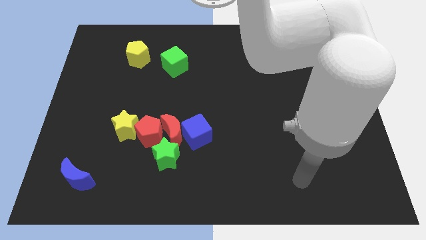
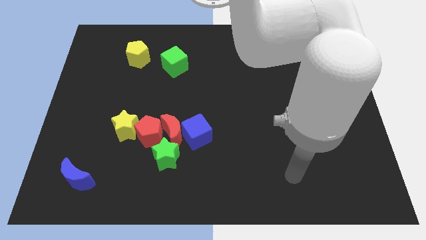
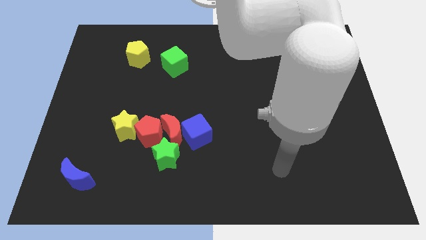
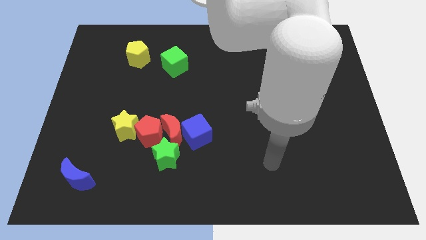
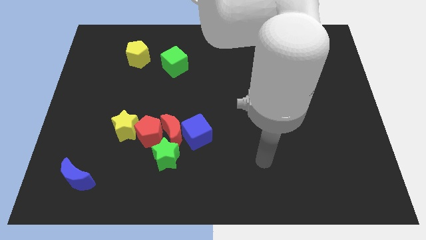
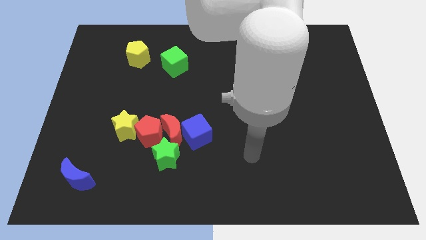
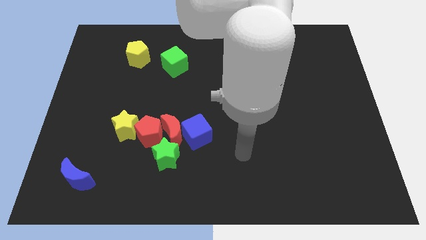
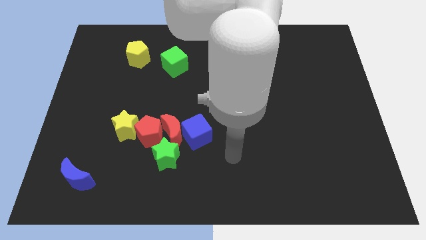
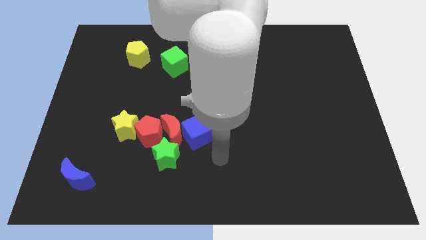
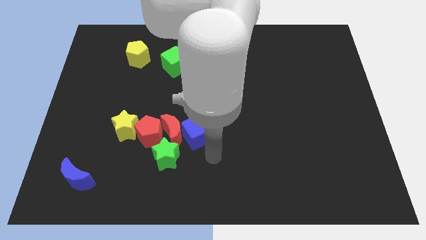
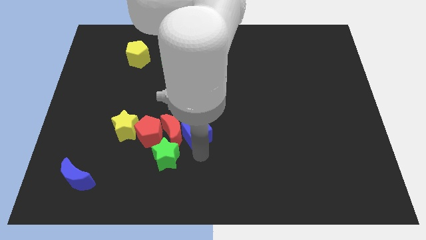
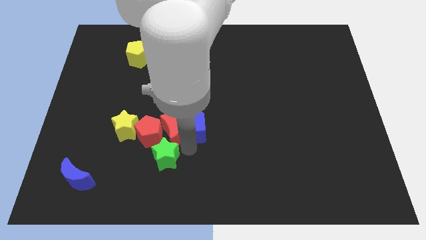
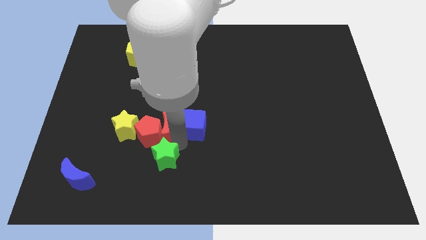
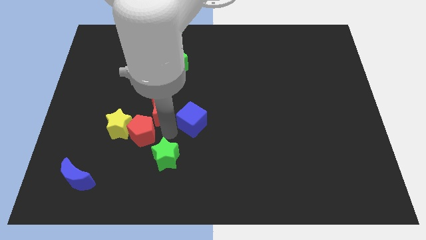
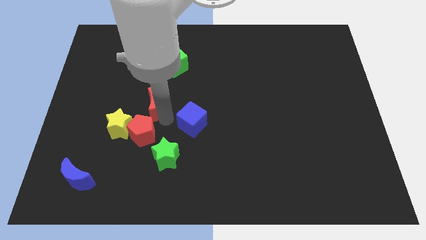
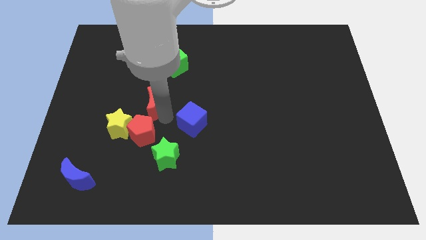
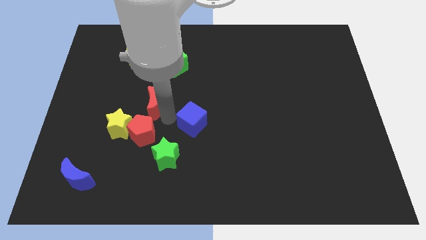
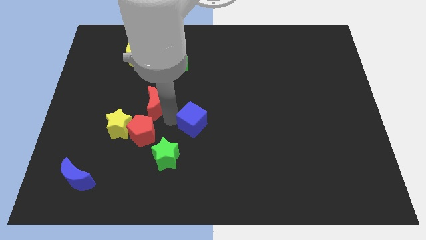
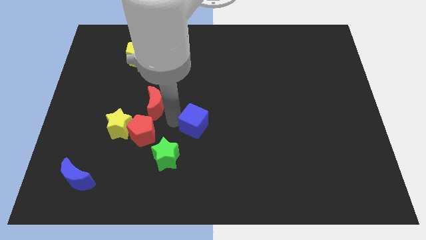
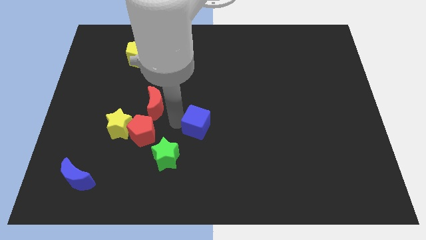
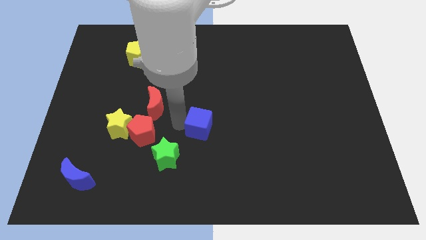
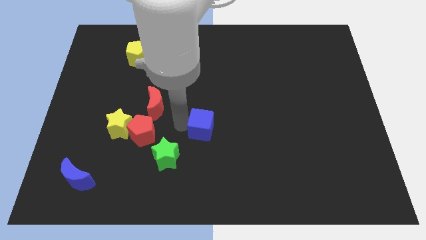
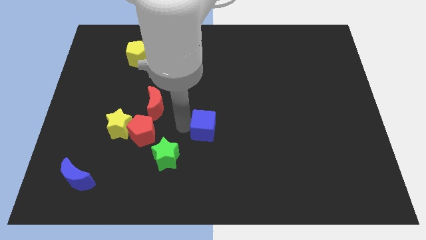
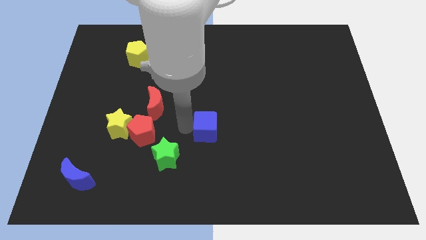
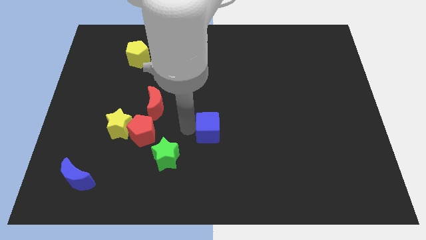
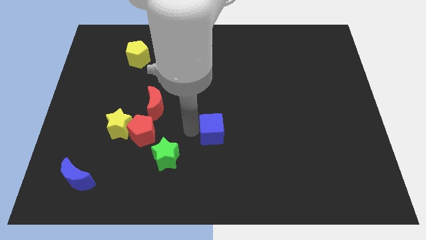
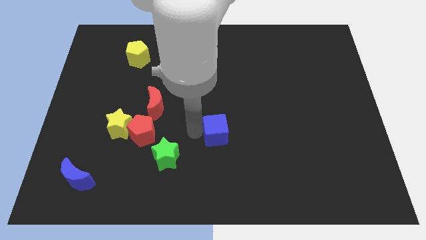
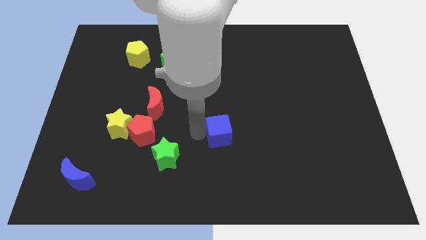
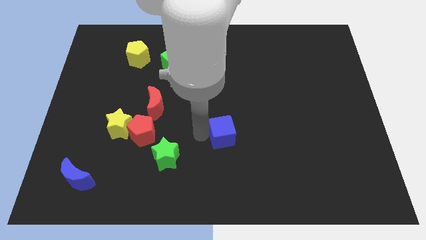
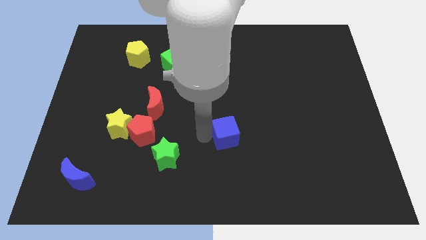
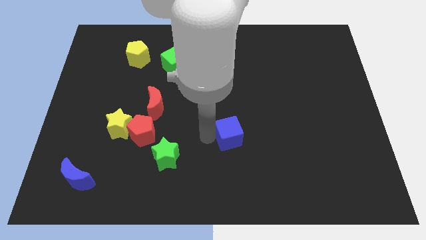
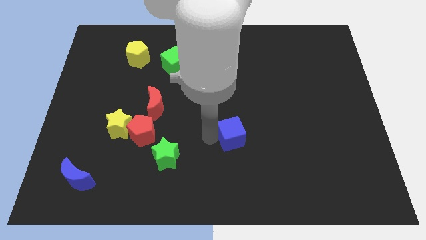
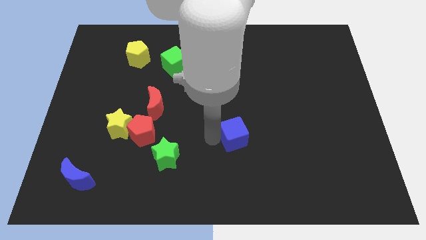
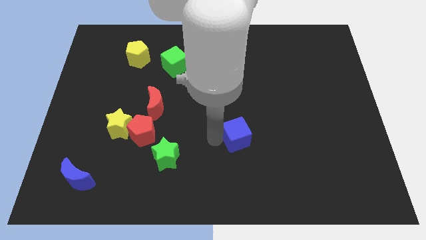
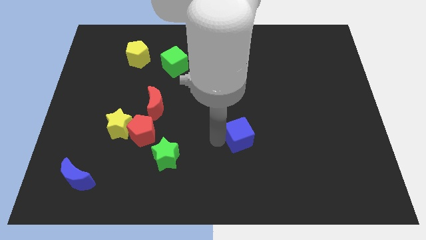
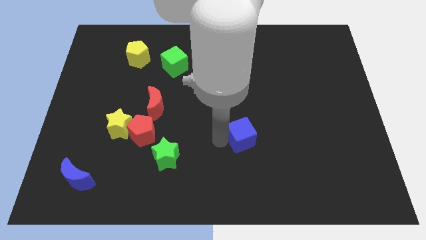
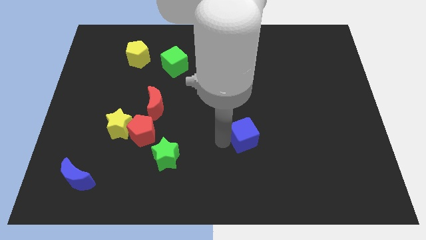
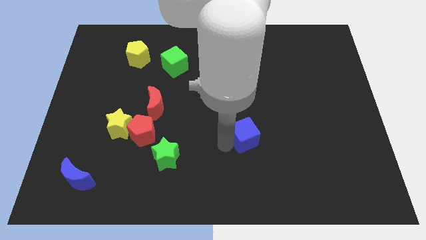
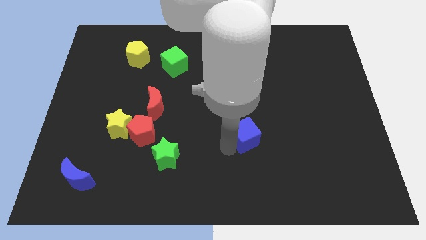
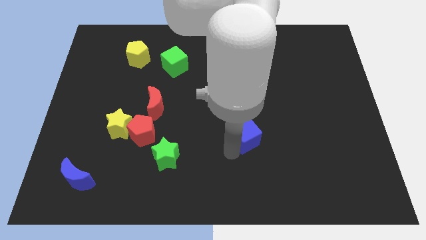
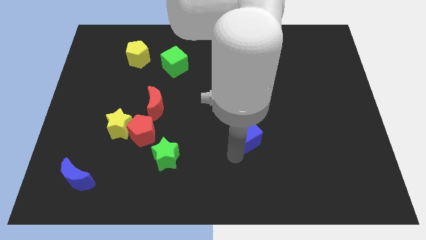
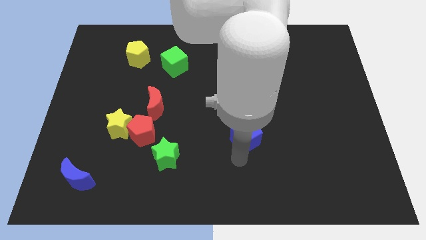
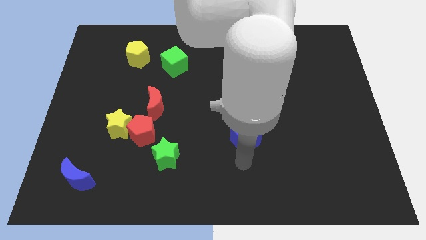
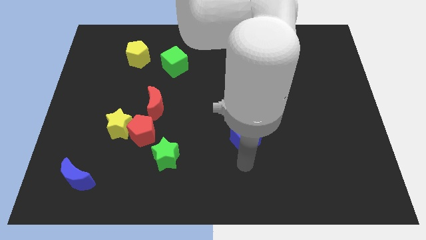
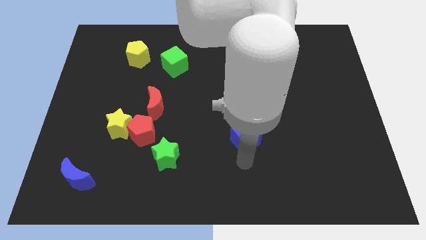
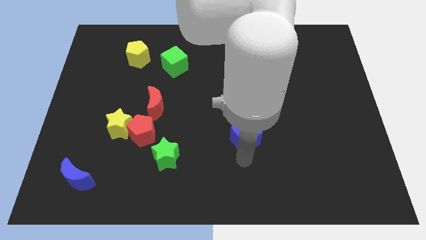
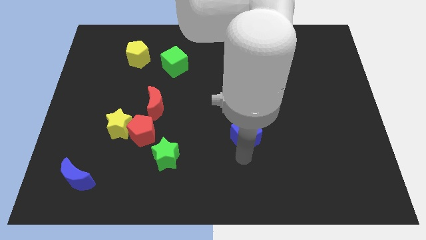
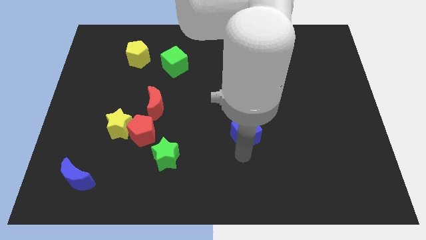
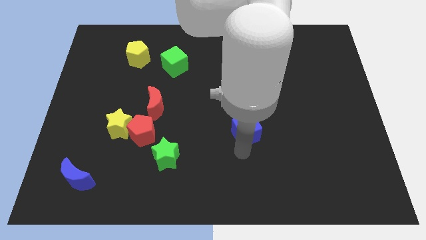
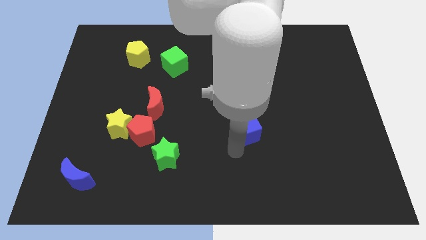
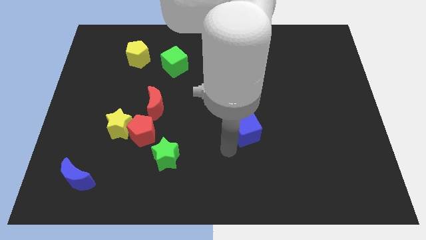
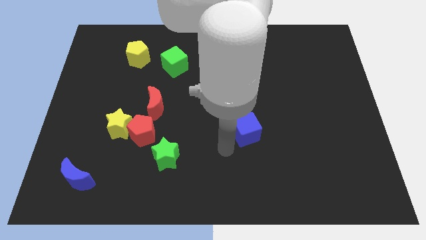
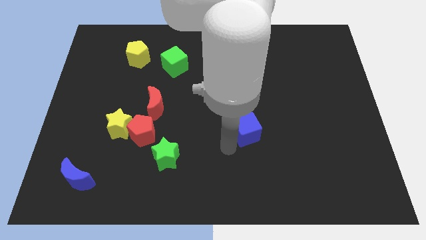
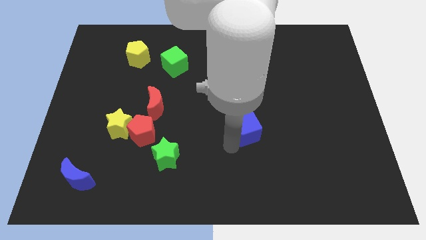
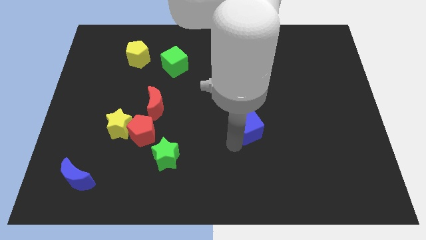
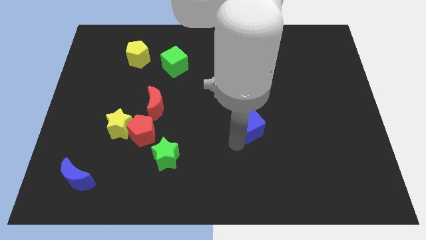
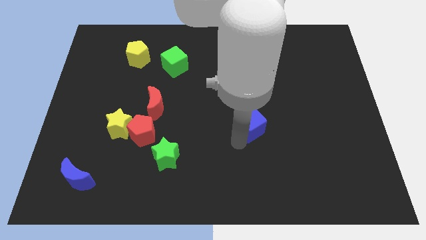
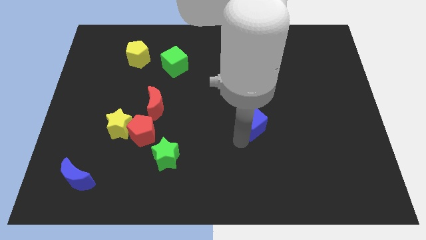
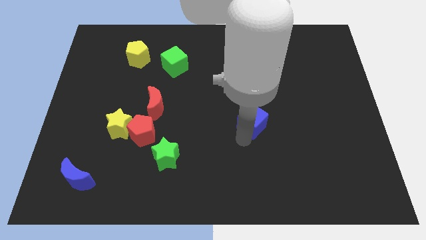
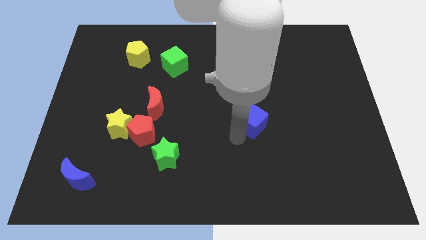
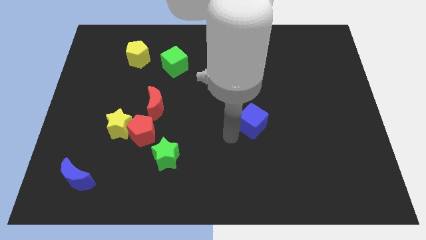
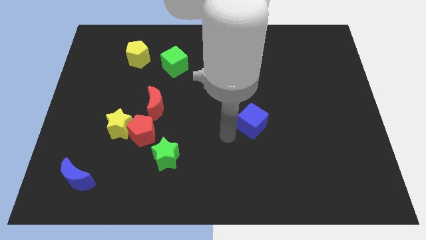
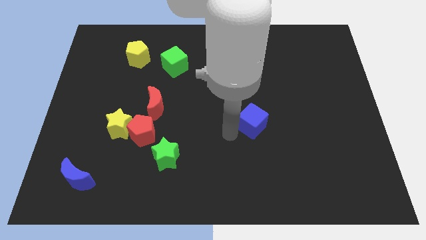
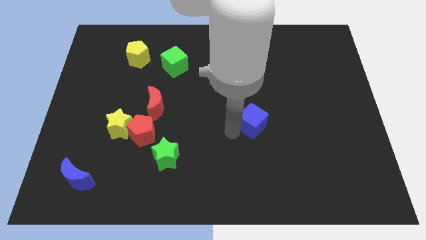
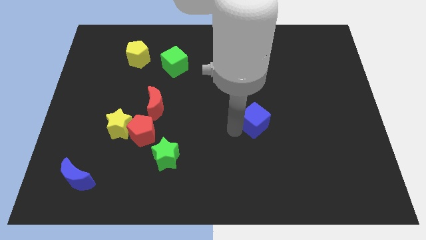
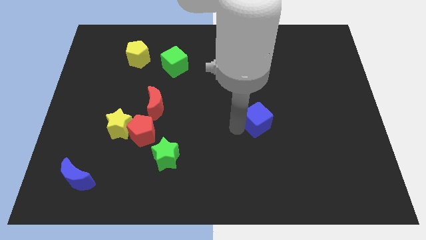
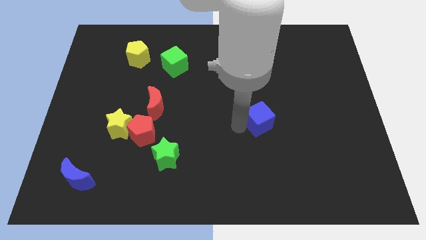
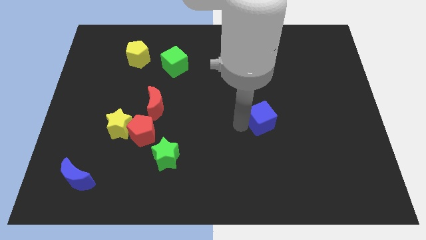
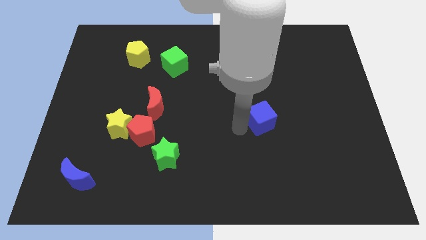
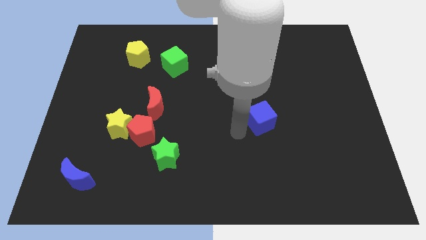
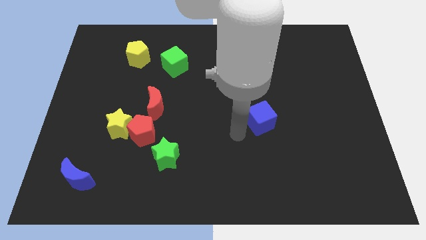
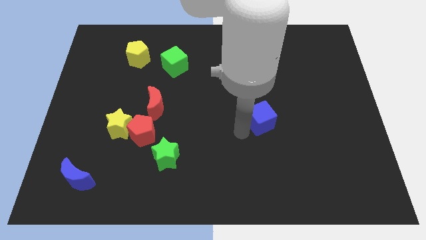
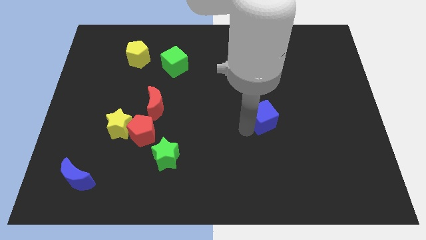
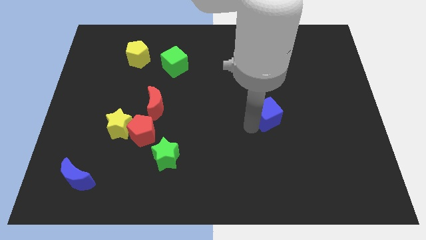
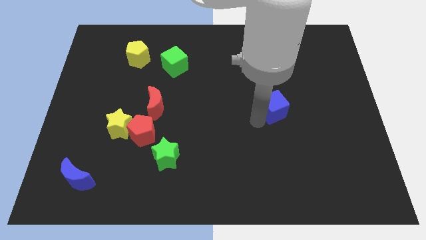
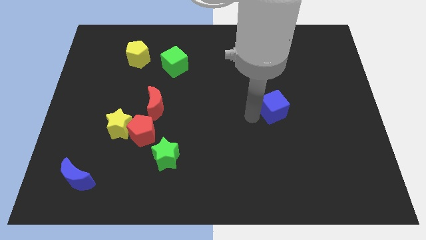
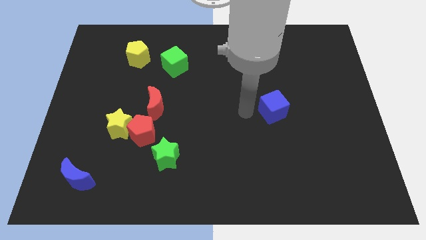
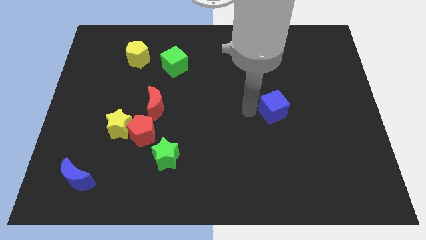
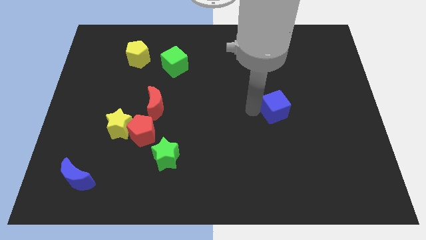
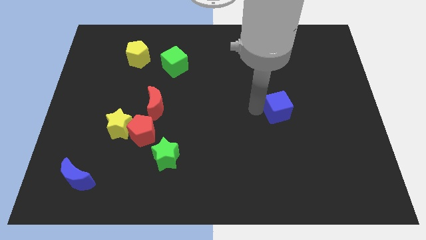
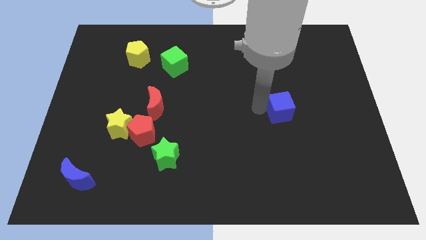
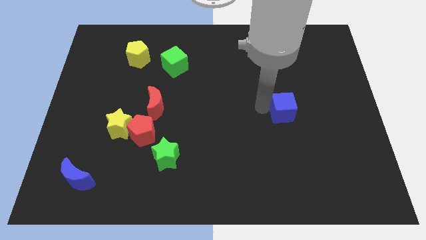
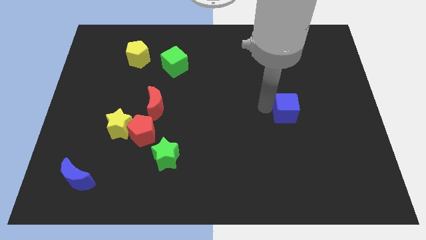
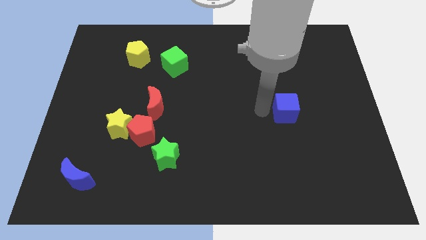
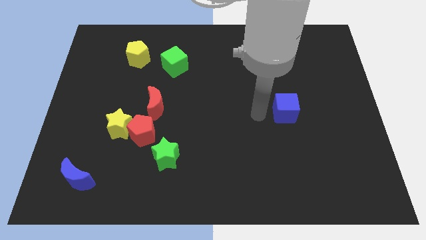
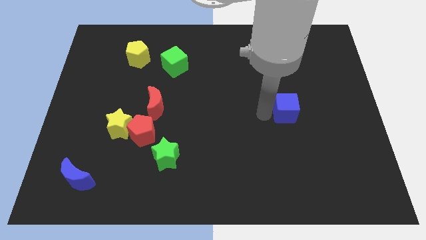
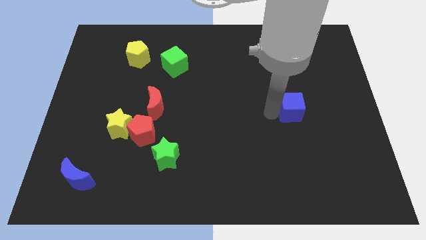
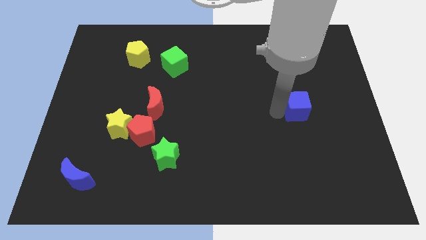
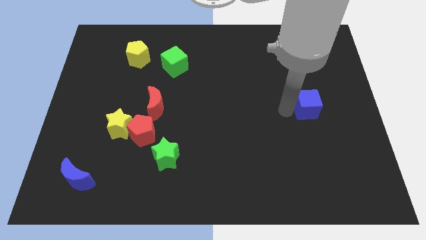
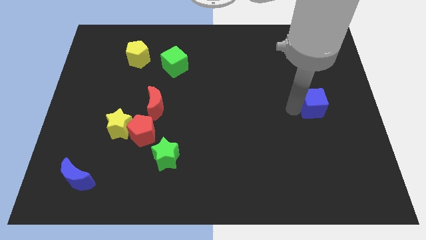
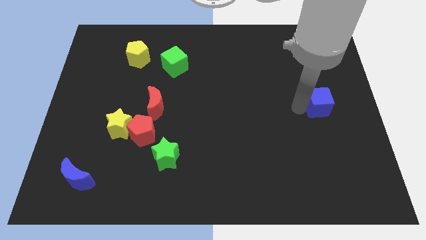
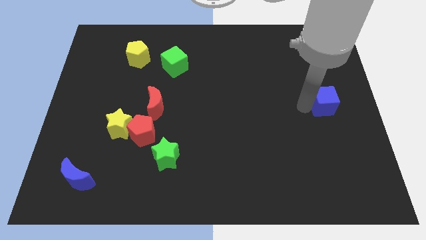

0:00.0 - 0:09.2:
move the blue cube to the right side
